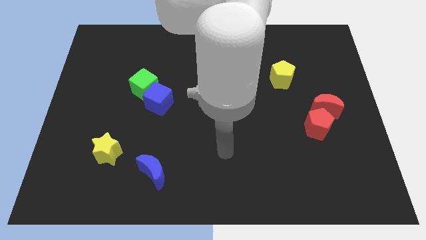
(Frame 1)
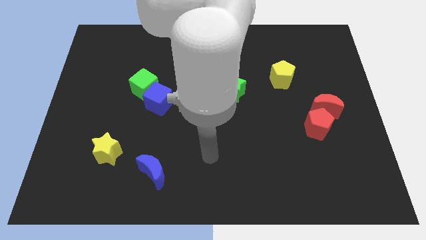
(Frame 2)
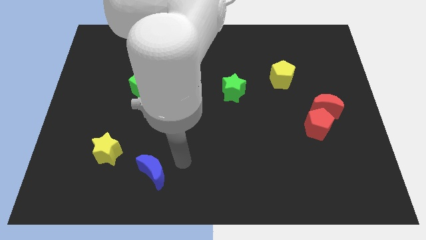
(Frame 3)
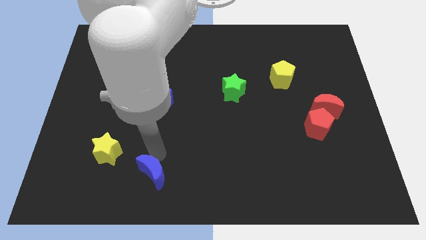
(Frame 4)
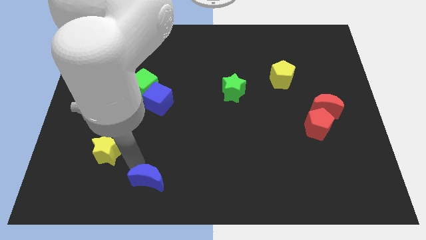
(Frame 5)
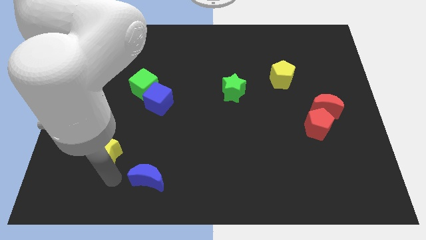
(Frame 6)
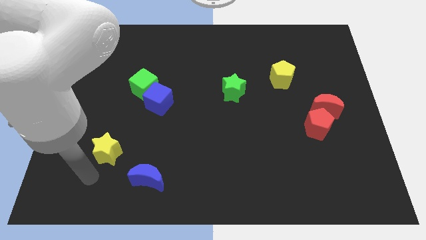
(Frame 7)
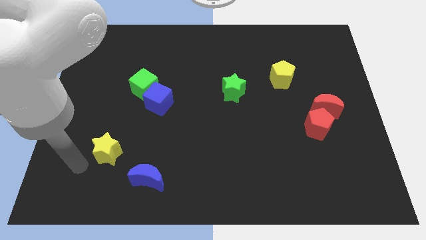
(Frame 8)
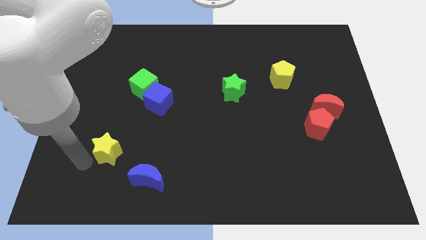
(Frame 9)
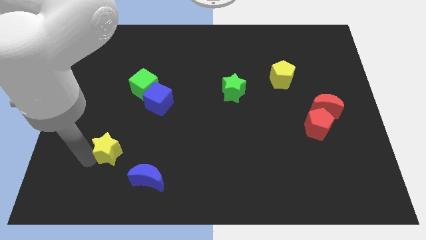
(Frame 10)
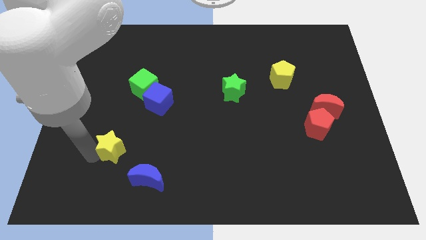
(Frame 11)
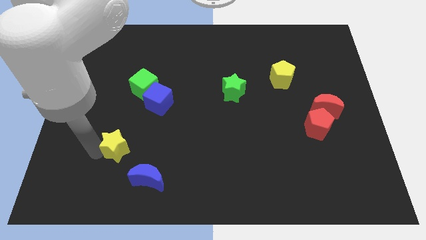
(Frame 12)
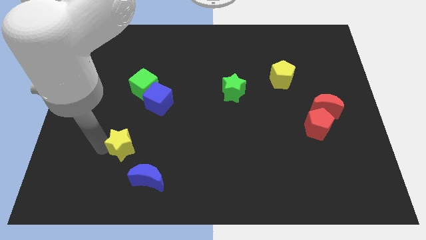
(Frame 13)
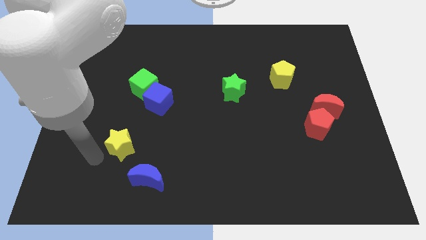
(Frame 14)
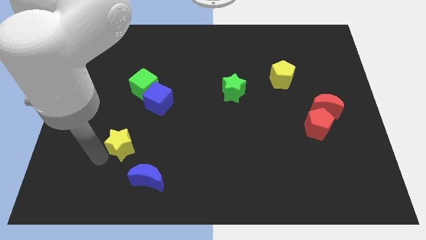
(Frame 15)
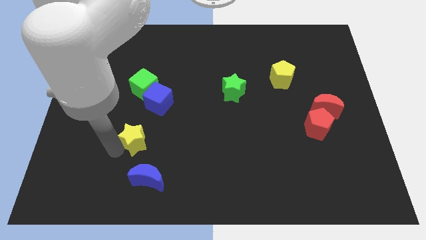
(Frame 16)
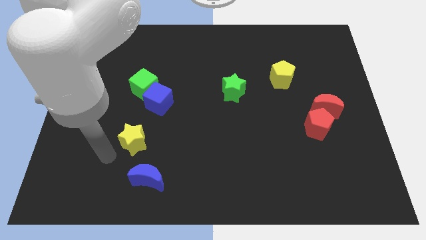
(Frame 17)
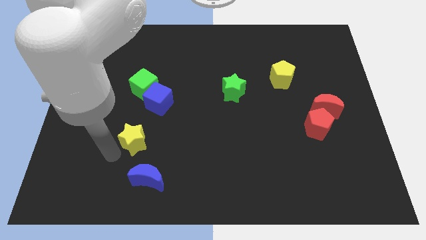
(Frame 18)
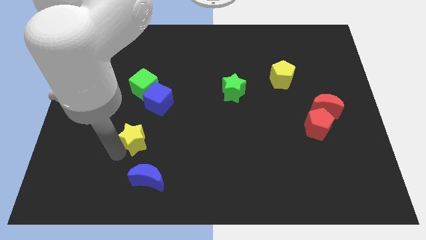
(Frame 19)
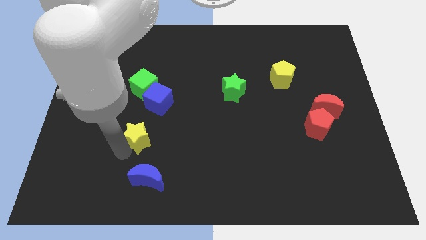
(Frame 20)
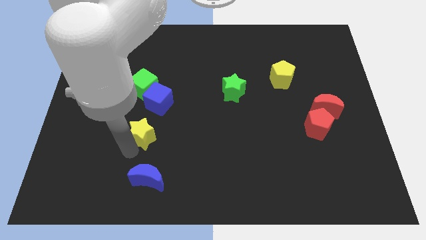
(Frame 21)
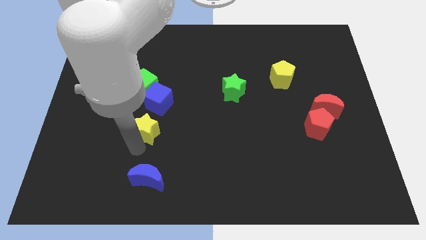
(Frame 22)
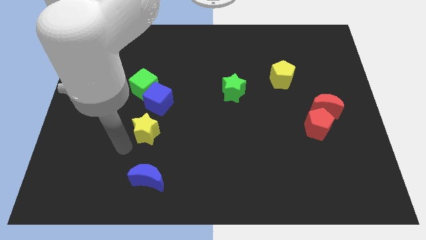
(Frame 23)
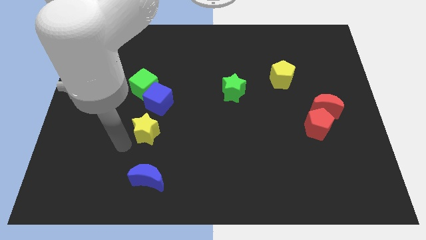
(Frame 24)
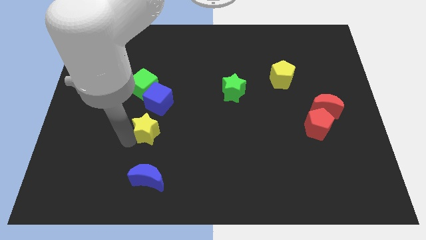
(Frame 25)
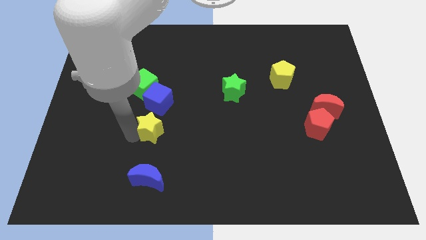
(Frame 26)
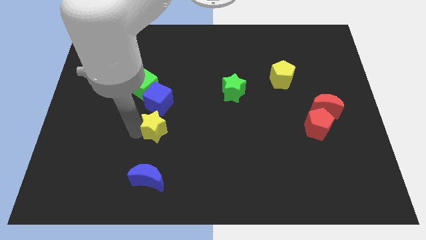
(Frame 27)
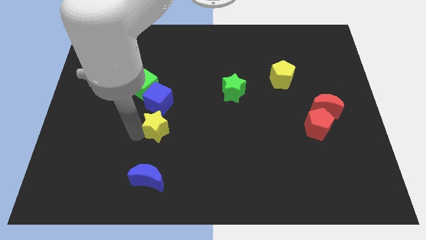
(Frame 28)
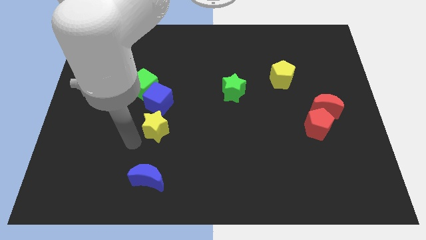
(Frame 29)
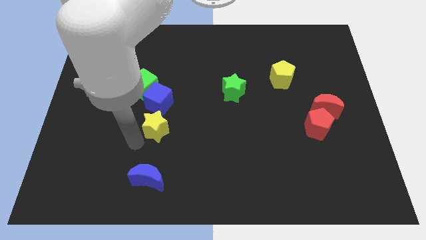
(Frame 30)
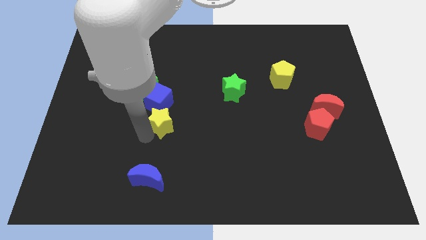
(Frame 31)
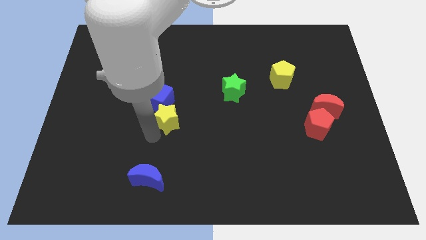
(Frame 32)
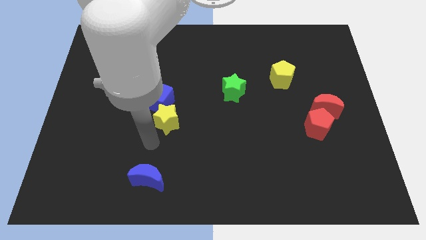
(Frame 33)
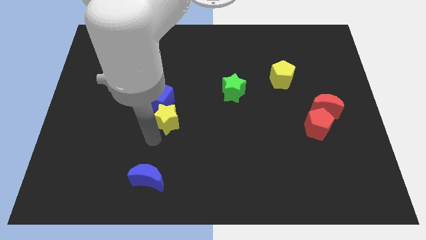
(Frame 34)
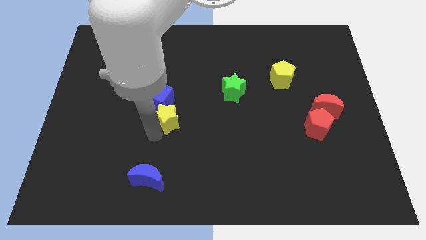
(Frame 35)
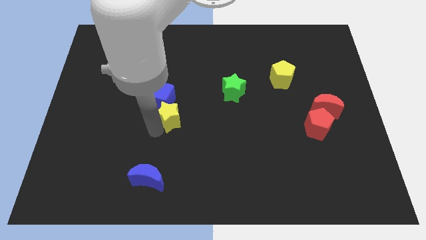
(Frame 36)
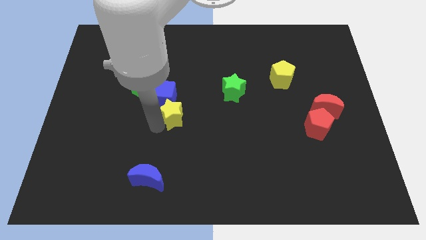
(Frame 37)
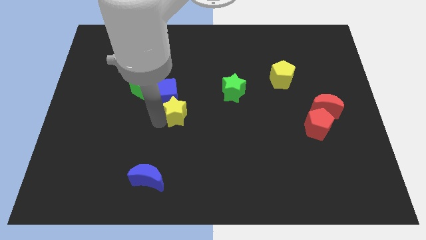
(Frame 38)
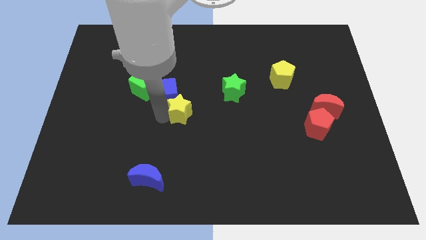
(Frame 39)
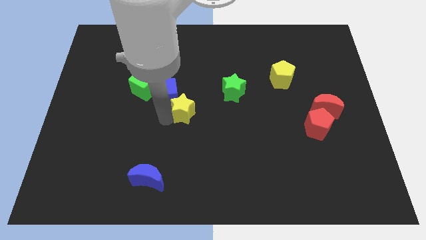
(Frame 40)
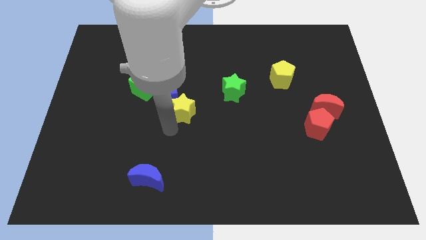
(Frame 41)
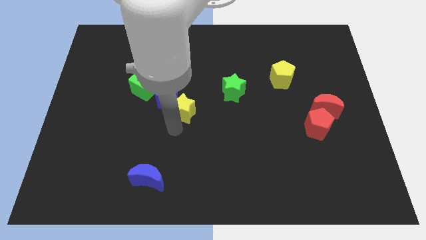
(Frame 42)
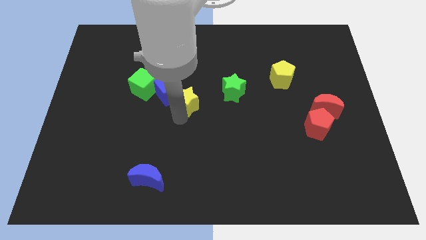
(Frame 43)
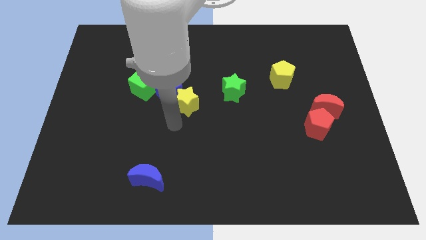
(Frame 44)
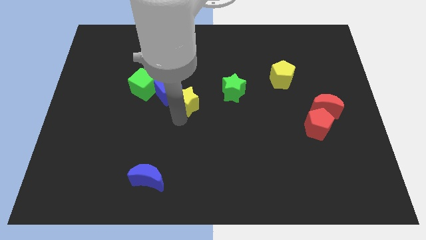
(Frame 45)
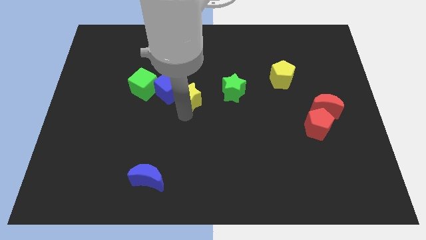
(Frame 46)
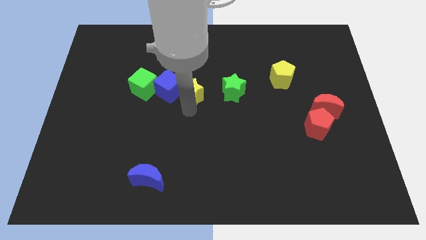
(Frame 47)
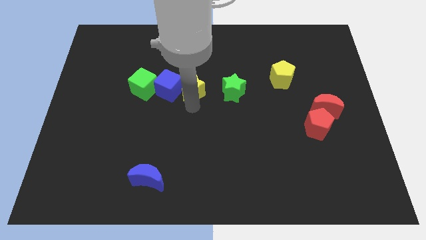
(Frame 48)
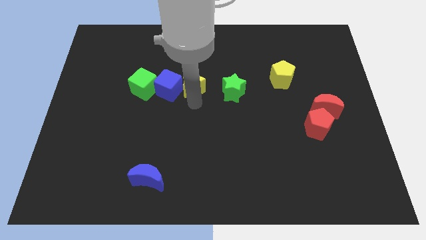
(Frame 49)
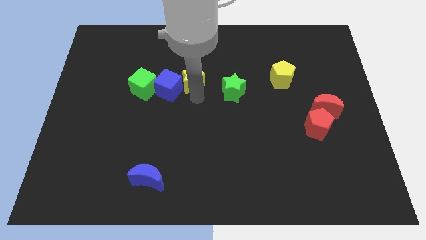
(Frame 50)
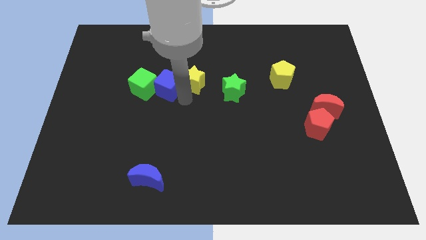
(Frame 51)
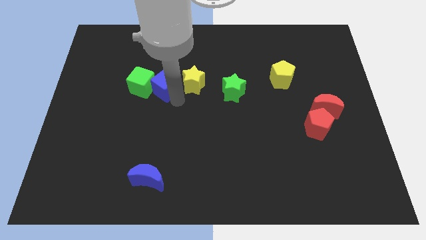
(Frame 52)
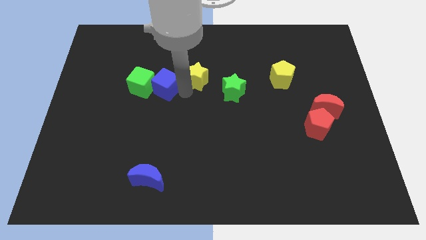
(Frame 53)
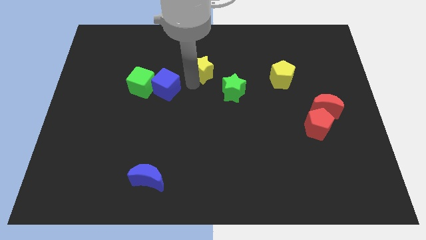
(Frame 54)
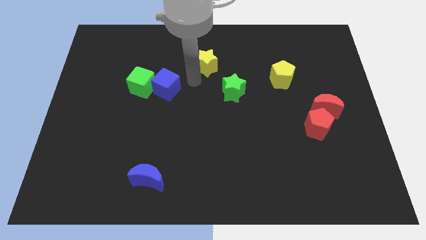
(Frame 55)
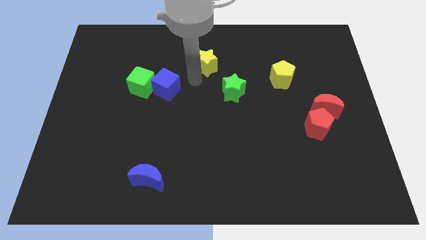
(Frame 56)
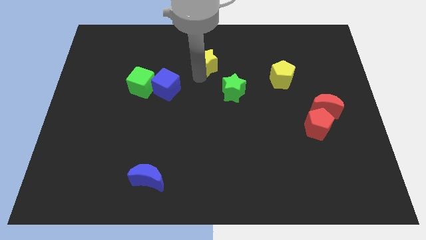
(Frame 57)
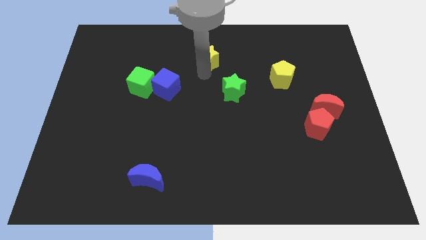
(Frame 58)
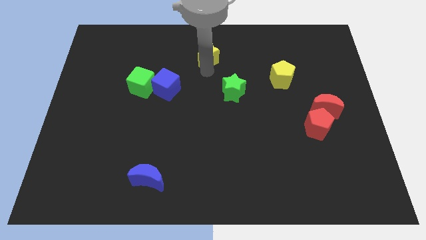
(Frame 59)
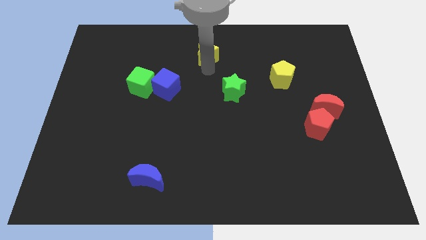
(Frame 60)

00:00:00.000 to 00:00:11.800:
move the yellow star to the top

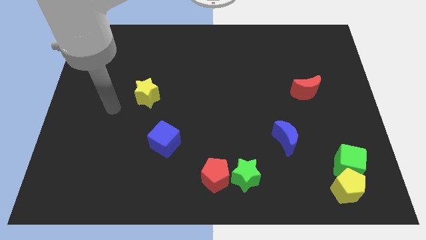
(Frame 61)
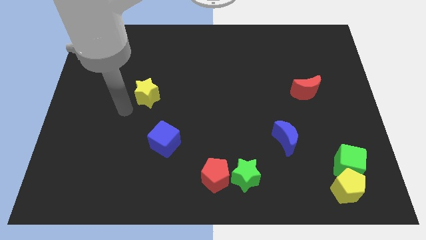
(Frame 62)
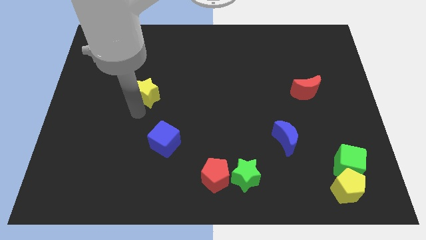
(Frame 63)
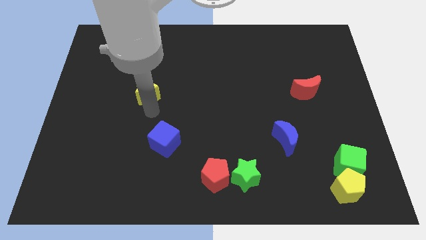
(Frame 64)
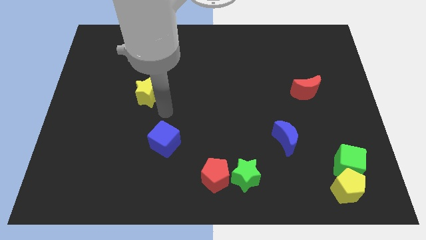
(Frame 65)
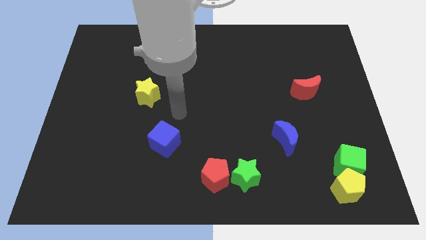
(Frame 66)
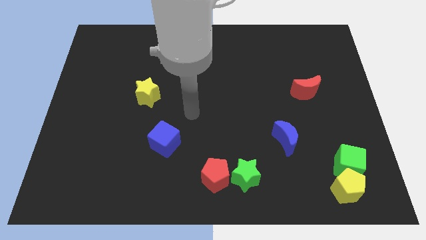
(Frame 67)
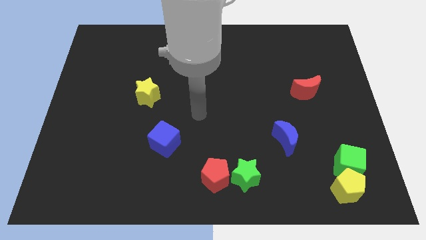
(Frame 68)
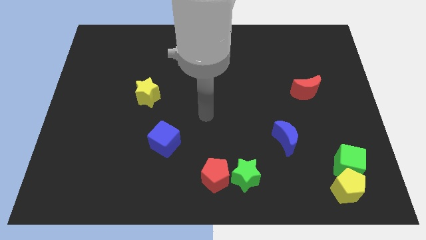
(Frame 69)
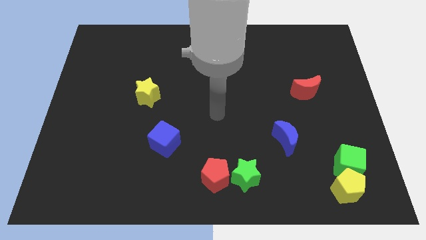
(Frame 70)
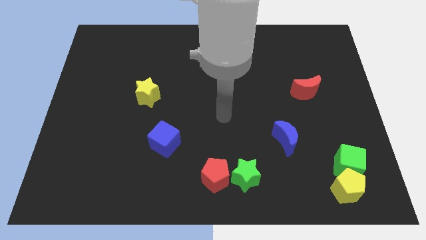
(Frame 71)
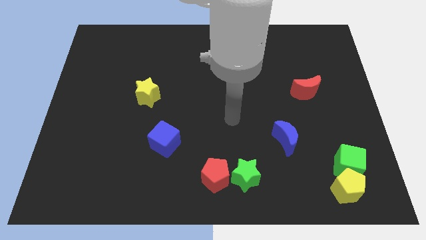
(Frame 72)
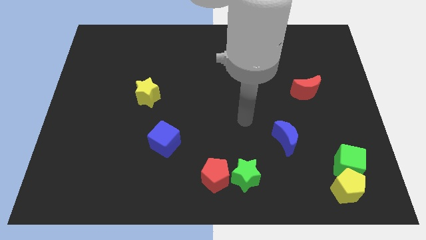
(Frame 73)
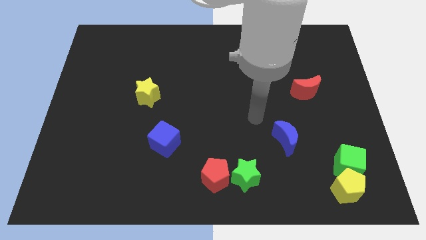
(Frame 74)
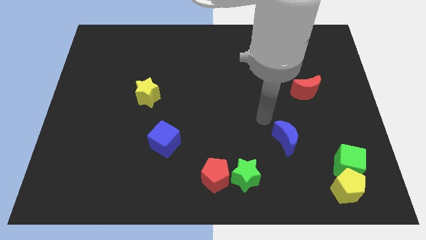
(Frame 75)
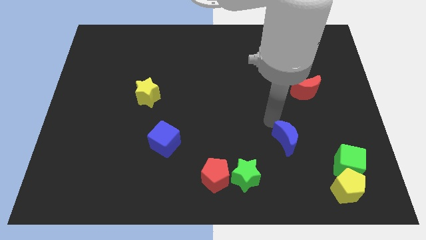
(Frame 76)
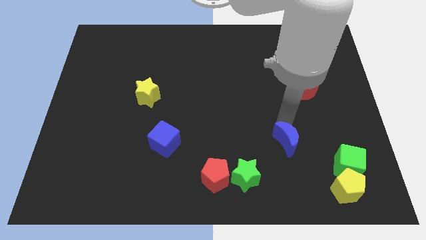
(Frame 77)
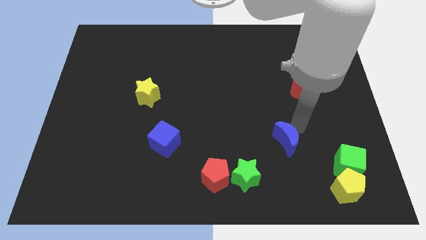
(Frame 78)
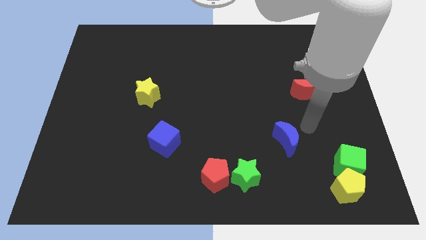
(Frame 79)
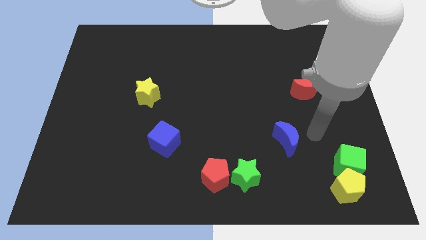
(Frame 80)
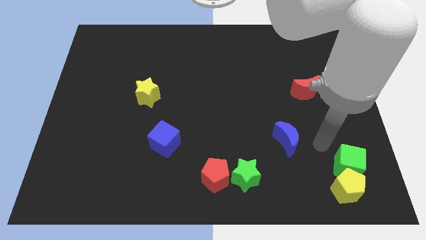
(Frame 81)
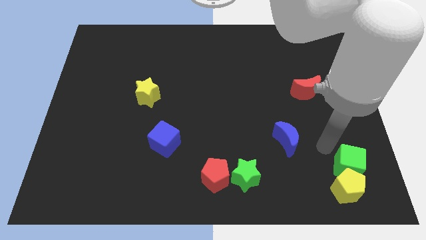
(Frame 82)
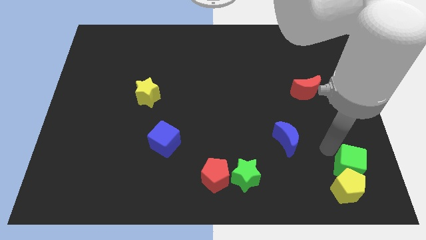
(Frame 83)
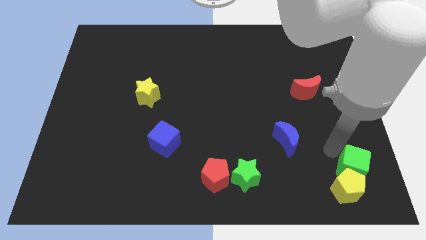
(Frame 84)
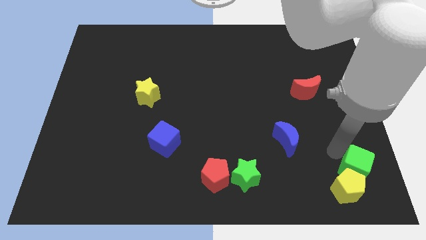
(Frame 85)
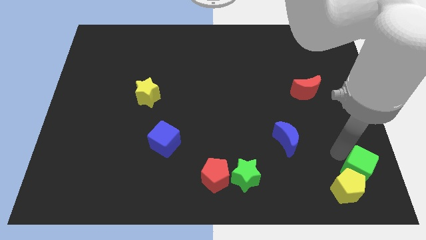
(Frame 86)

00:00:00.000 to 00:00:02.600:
move the green cube to the lower right corner
